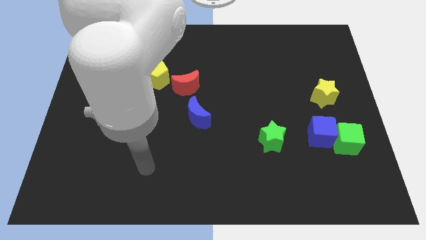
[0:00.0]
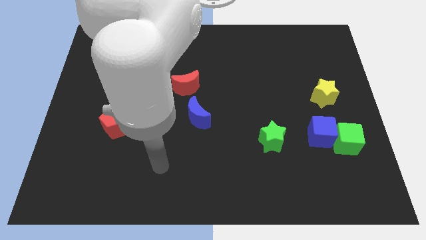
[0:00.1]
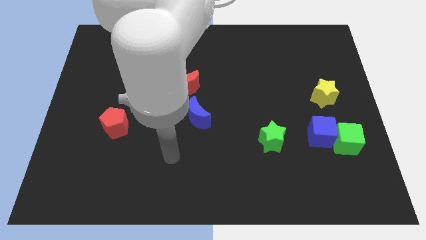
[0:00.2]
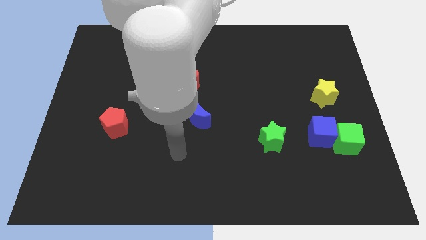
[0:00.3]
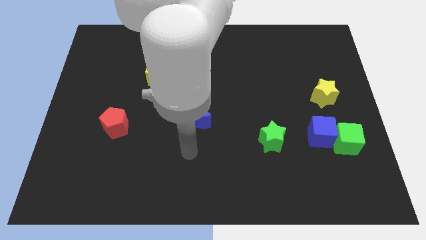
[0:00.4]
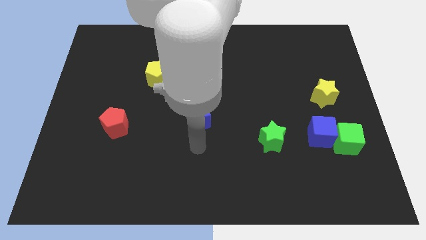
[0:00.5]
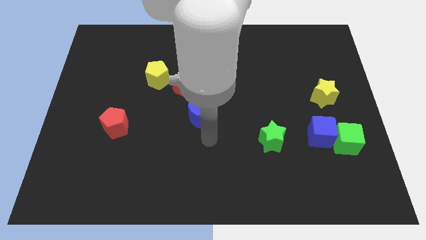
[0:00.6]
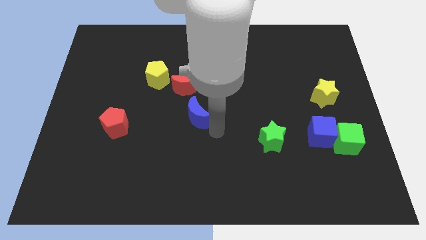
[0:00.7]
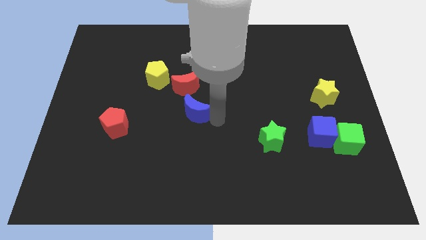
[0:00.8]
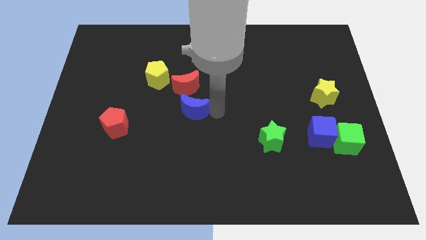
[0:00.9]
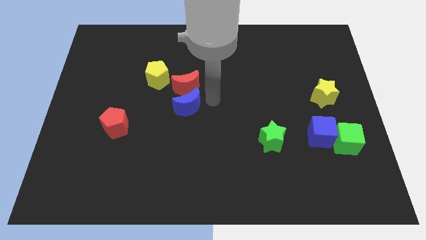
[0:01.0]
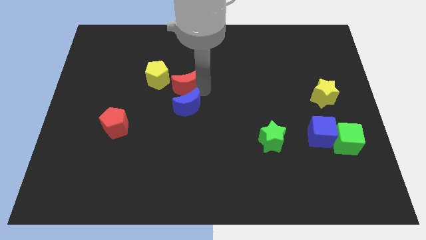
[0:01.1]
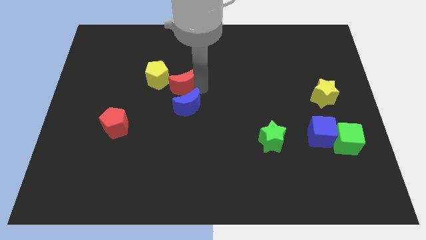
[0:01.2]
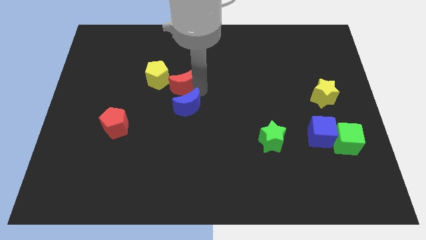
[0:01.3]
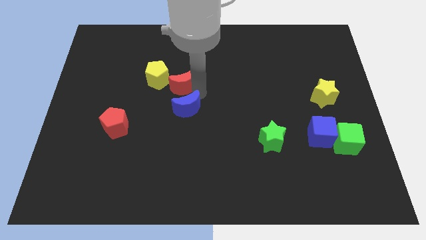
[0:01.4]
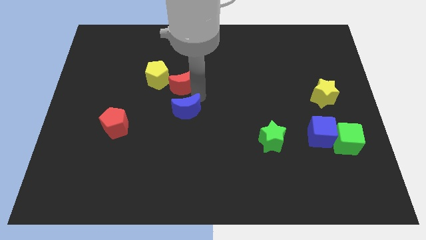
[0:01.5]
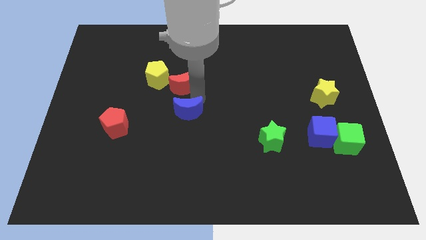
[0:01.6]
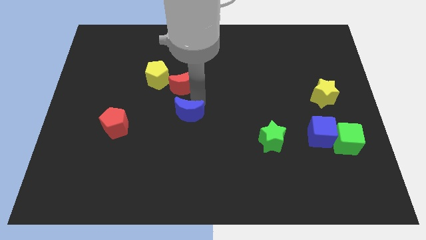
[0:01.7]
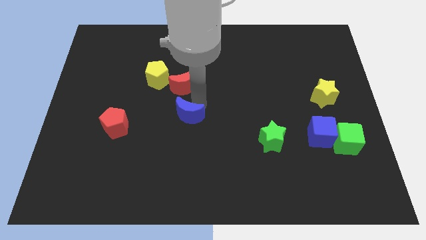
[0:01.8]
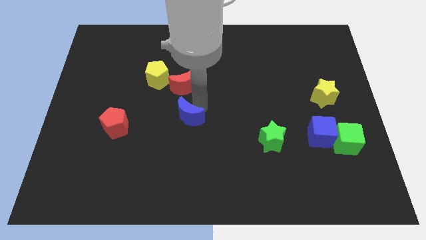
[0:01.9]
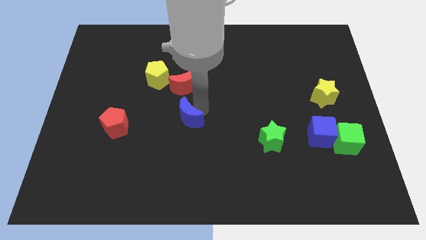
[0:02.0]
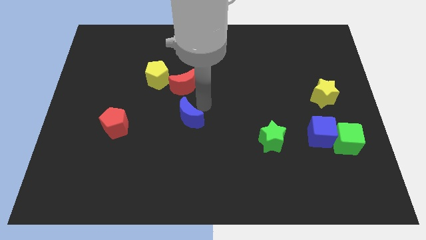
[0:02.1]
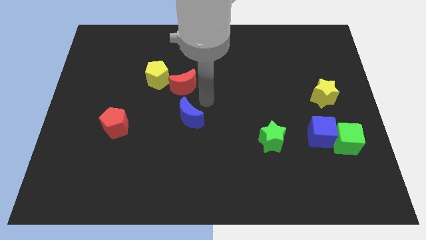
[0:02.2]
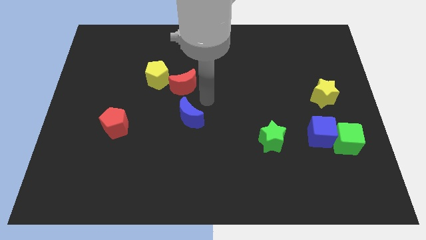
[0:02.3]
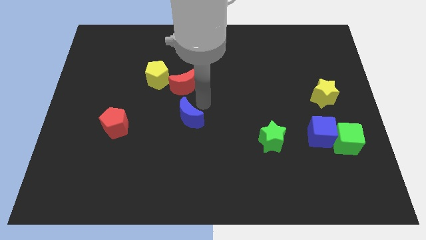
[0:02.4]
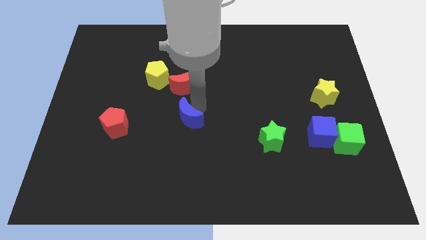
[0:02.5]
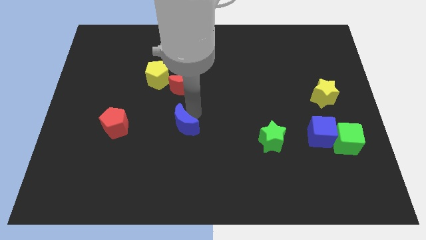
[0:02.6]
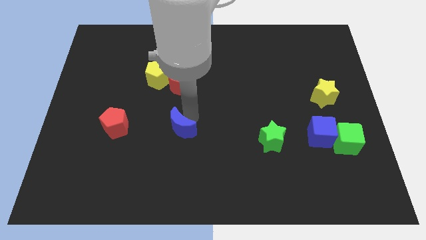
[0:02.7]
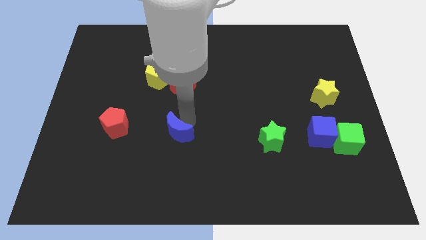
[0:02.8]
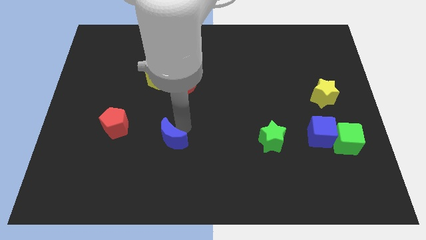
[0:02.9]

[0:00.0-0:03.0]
push the blue moon downwards and left diagonally slightly

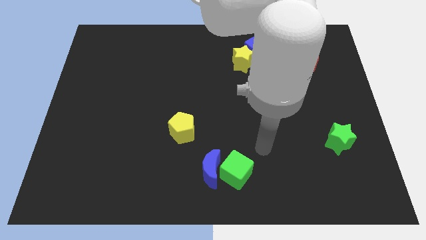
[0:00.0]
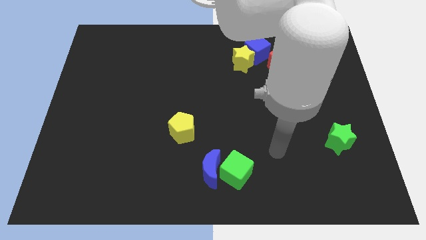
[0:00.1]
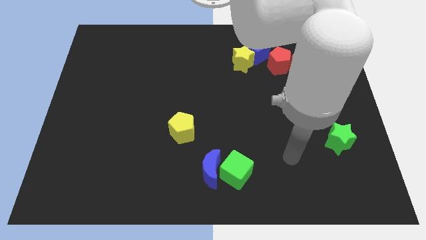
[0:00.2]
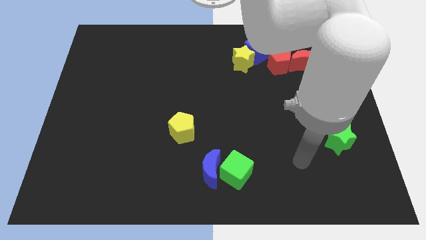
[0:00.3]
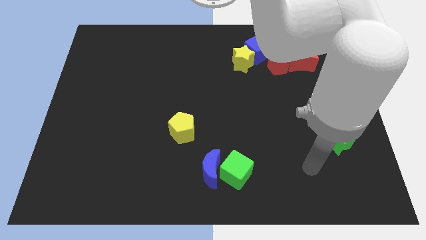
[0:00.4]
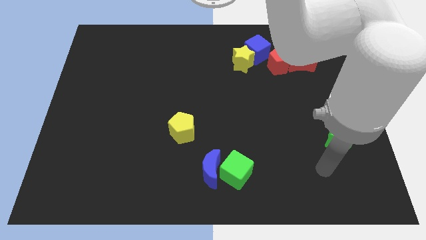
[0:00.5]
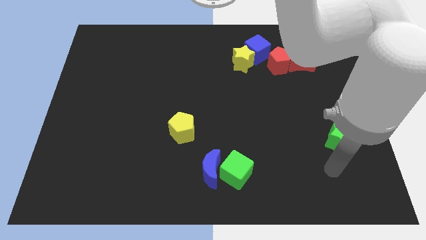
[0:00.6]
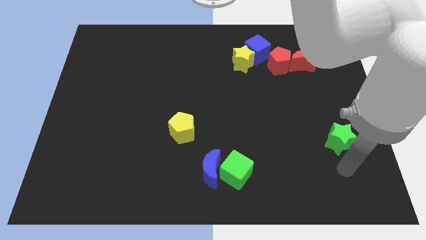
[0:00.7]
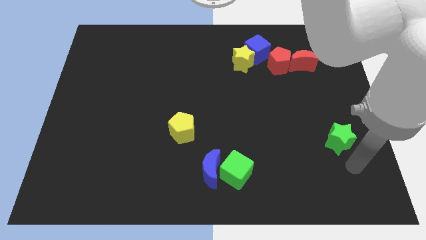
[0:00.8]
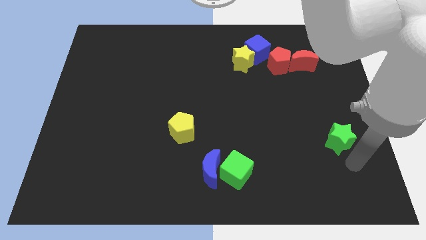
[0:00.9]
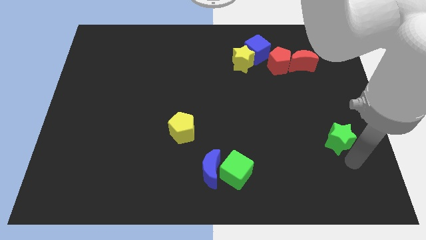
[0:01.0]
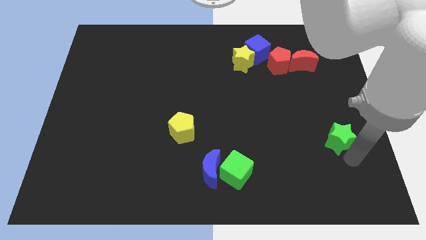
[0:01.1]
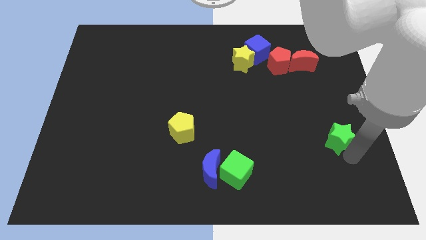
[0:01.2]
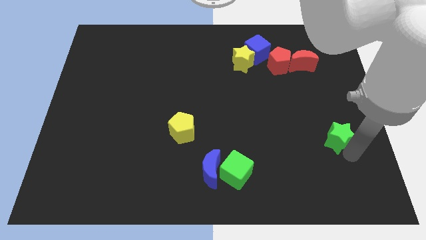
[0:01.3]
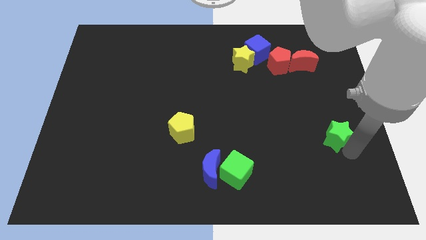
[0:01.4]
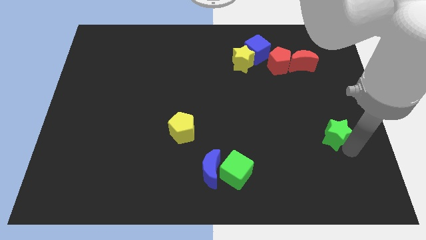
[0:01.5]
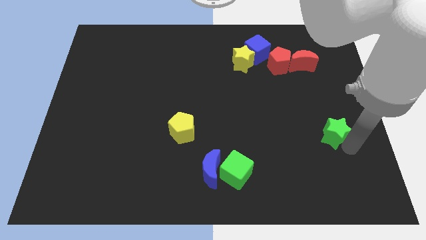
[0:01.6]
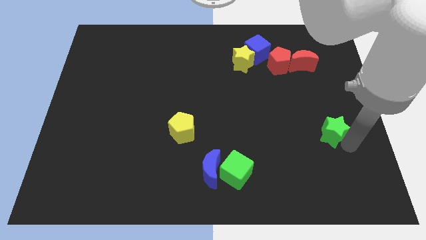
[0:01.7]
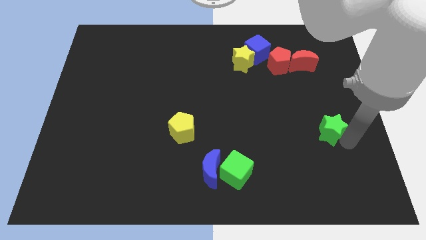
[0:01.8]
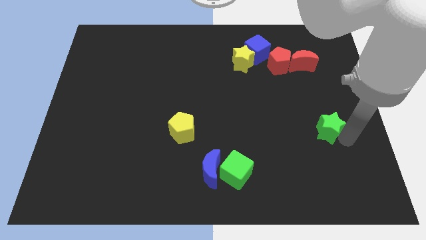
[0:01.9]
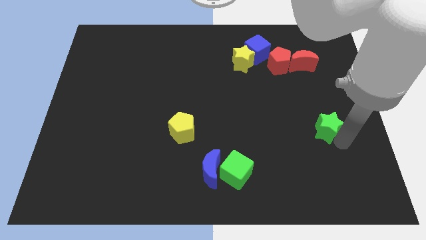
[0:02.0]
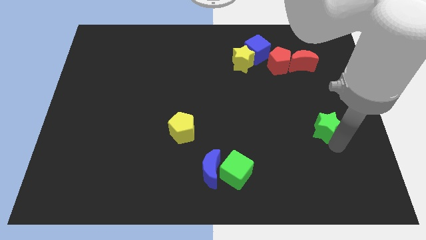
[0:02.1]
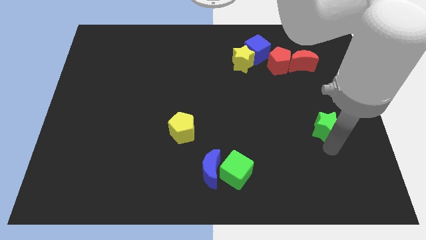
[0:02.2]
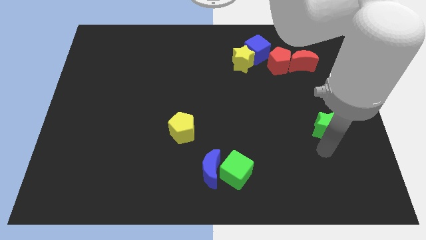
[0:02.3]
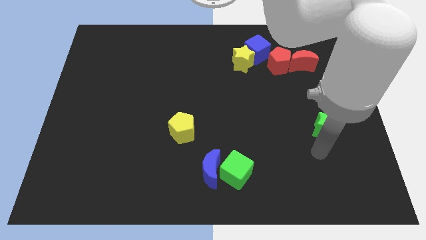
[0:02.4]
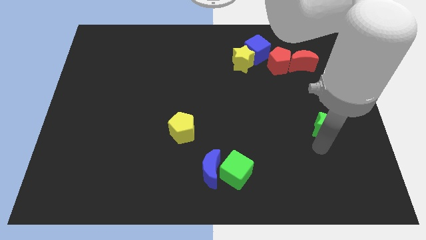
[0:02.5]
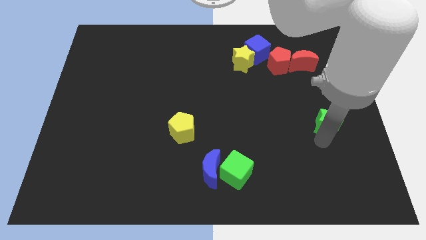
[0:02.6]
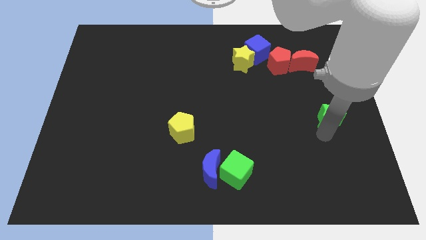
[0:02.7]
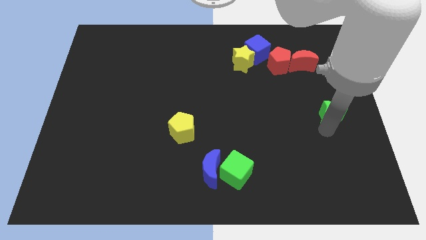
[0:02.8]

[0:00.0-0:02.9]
slide the green star a bit upwards

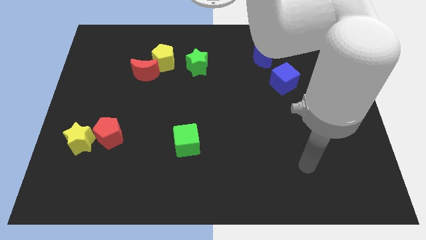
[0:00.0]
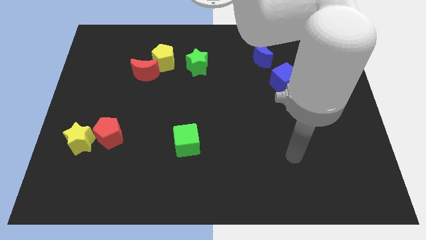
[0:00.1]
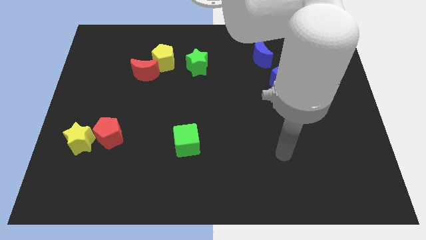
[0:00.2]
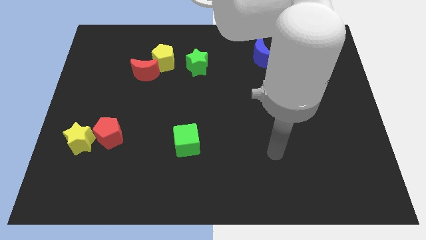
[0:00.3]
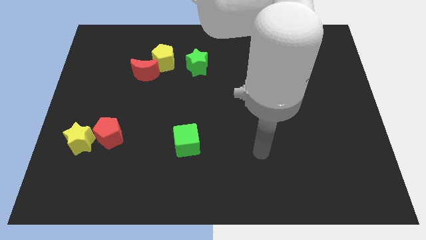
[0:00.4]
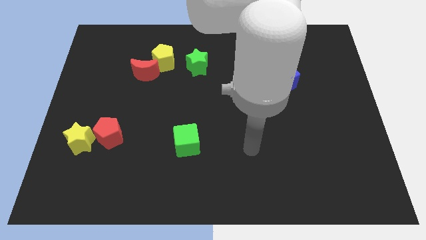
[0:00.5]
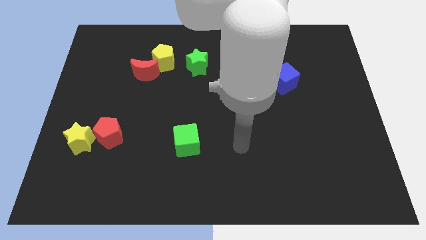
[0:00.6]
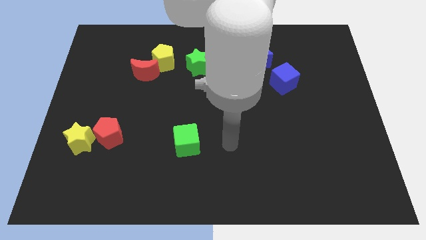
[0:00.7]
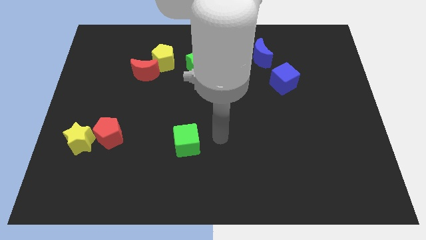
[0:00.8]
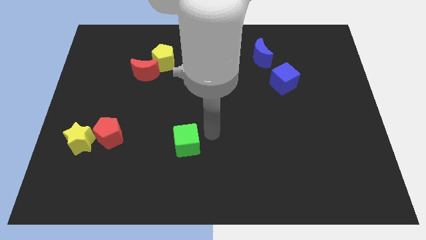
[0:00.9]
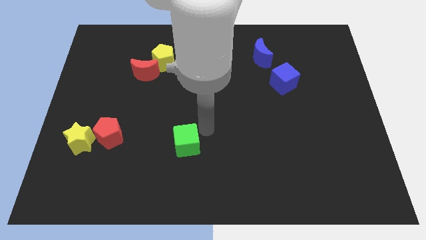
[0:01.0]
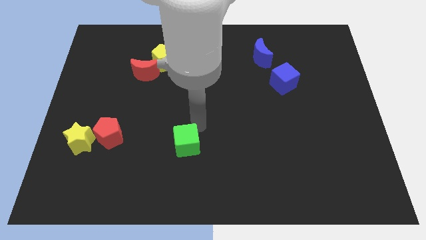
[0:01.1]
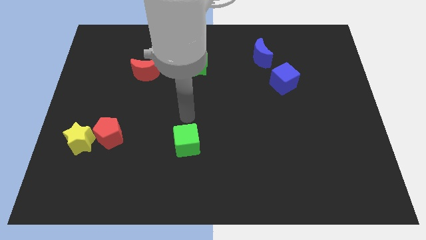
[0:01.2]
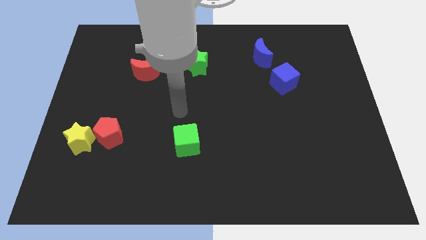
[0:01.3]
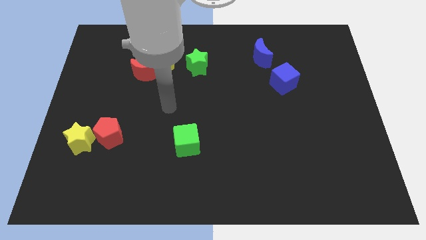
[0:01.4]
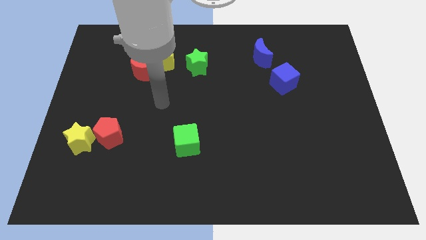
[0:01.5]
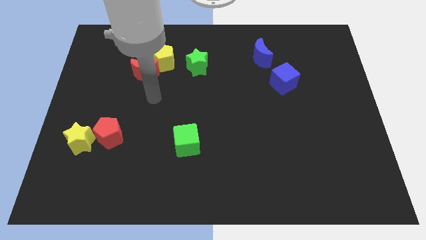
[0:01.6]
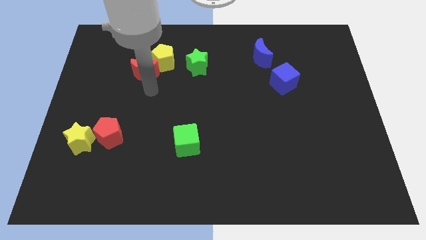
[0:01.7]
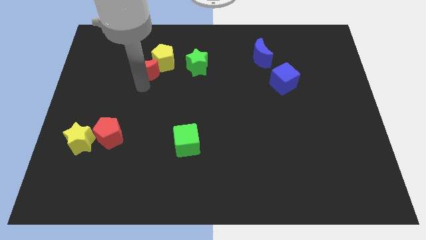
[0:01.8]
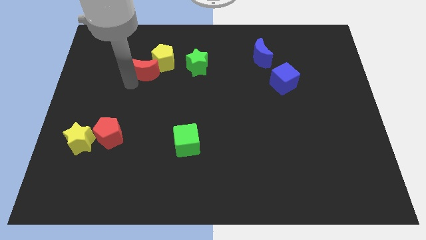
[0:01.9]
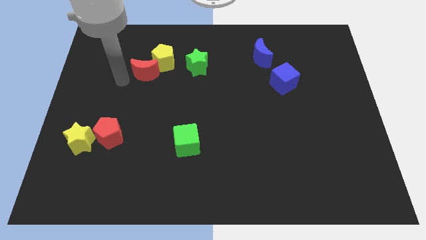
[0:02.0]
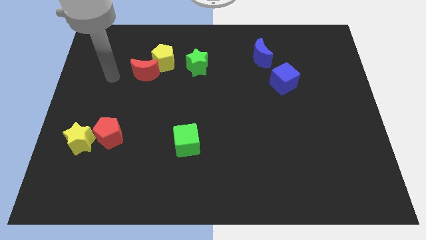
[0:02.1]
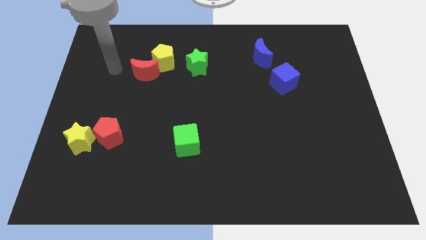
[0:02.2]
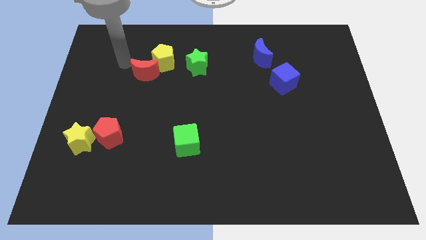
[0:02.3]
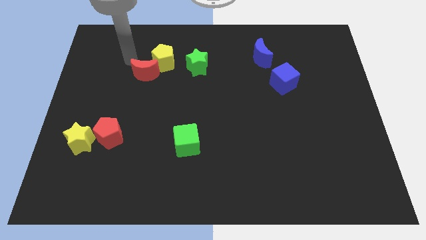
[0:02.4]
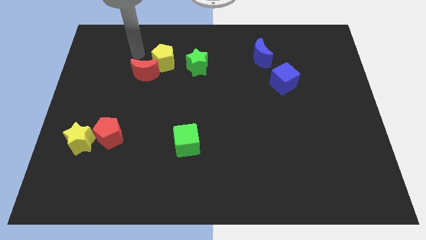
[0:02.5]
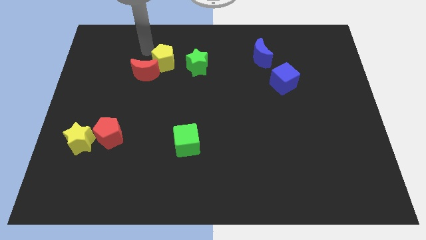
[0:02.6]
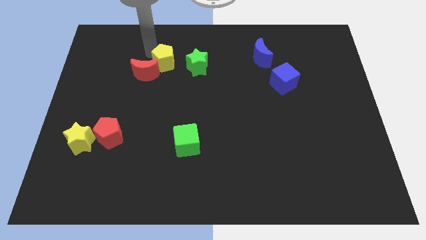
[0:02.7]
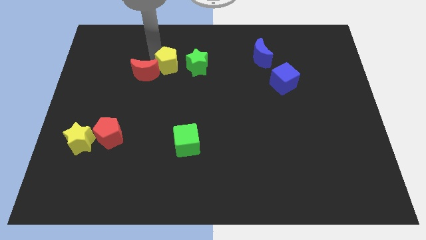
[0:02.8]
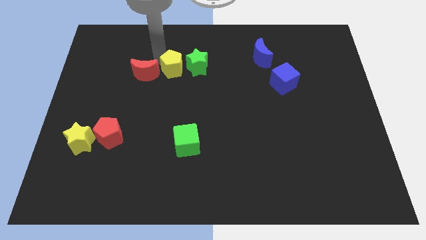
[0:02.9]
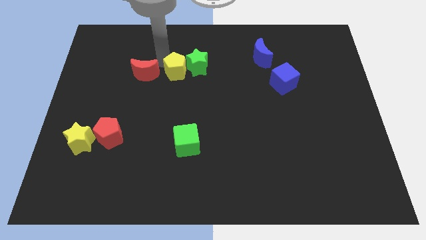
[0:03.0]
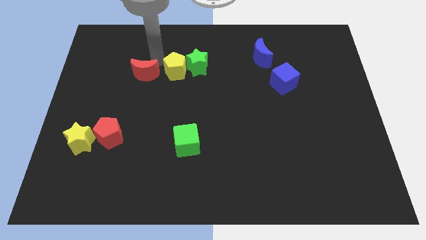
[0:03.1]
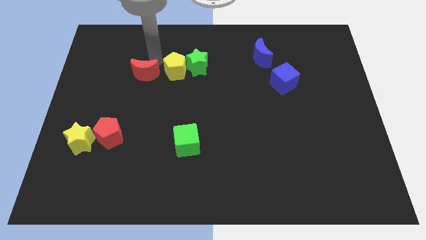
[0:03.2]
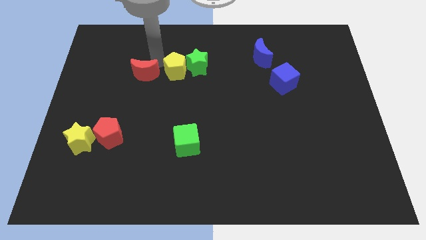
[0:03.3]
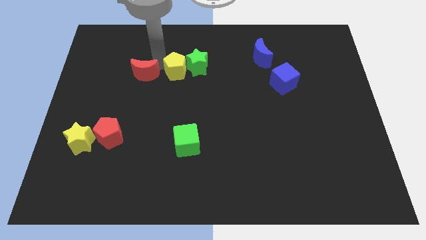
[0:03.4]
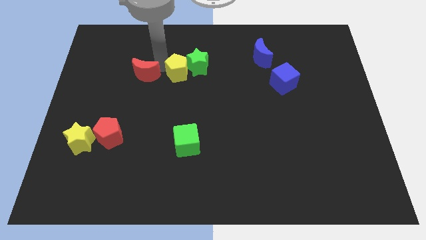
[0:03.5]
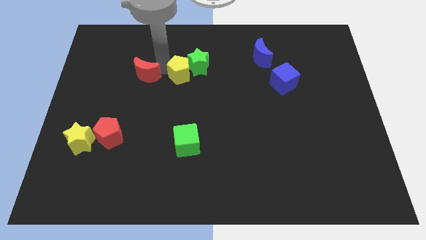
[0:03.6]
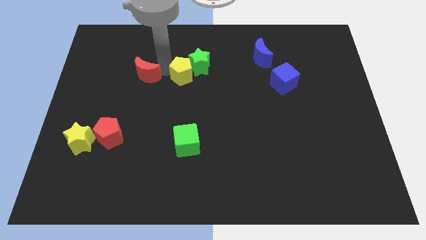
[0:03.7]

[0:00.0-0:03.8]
slide the yellow pentagon somewhat down and to the right diagonally
